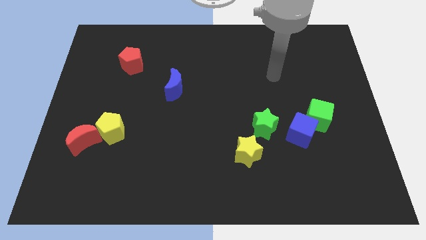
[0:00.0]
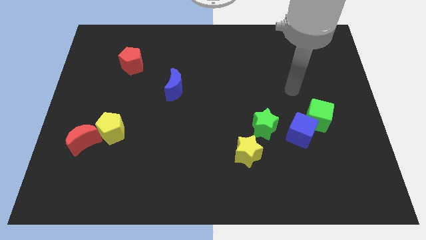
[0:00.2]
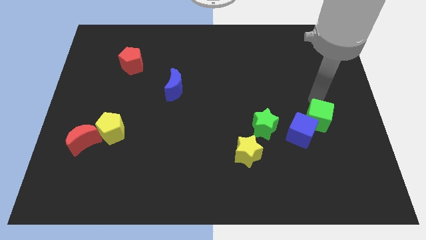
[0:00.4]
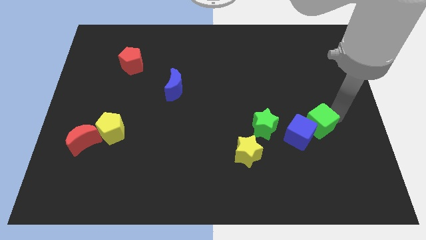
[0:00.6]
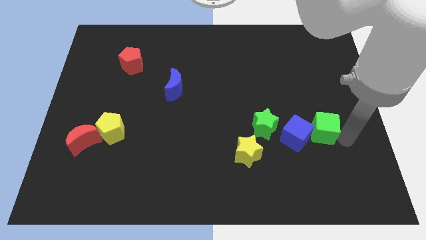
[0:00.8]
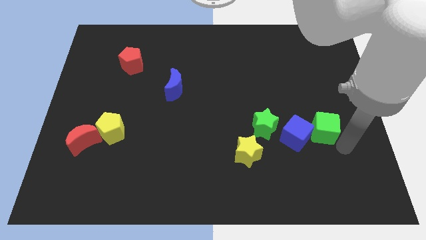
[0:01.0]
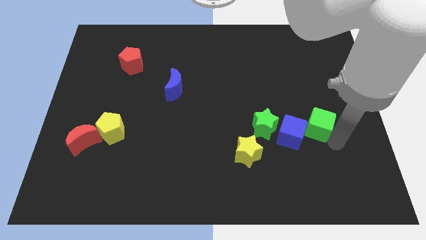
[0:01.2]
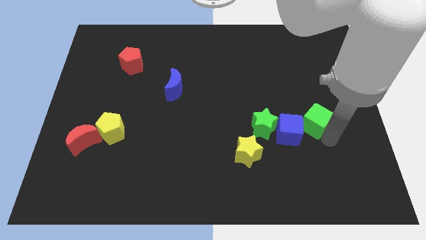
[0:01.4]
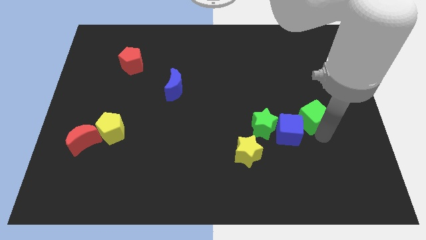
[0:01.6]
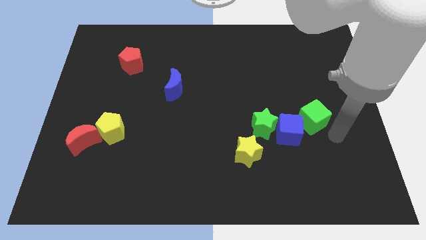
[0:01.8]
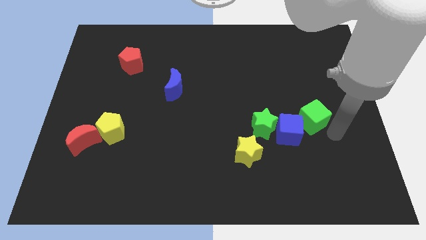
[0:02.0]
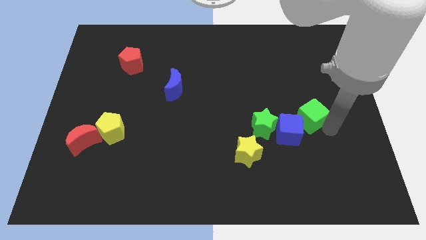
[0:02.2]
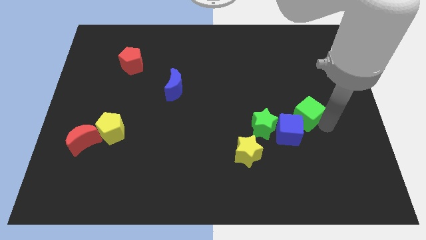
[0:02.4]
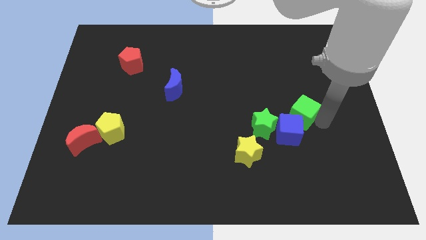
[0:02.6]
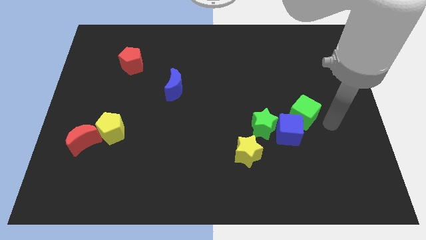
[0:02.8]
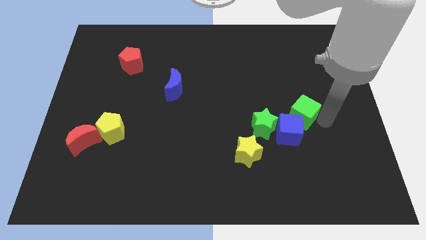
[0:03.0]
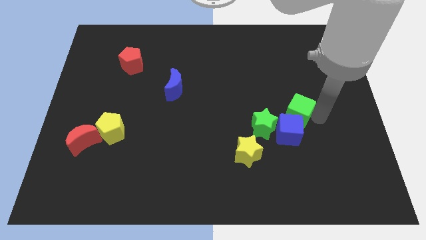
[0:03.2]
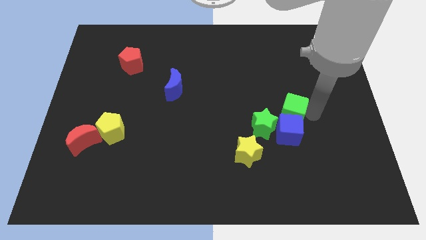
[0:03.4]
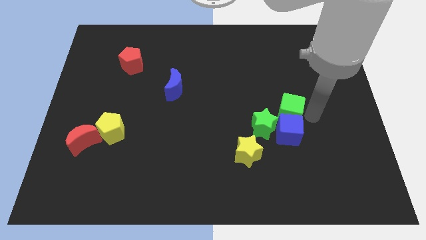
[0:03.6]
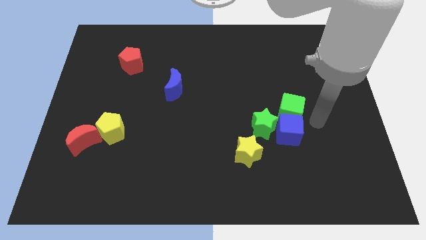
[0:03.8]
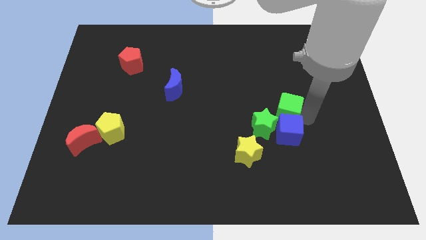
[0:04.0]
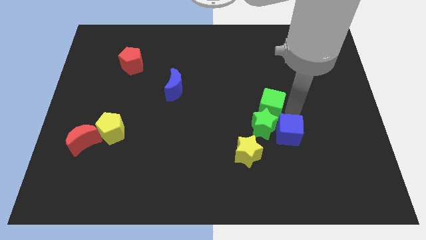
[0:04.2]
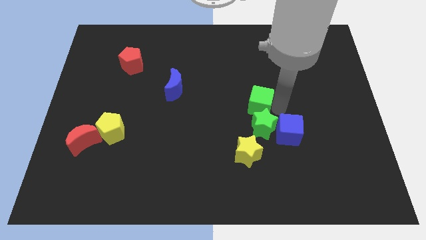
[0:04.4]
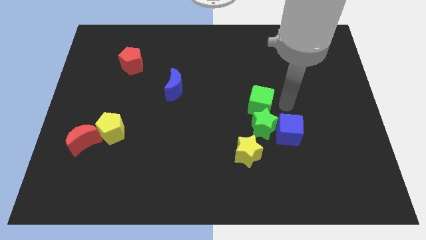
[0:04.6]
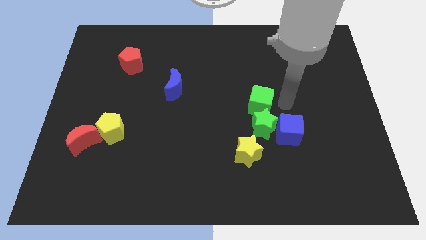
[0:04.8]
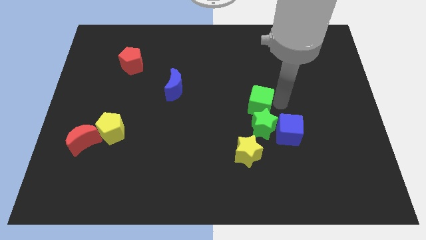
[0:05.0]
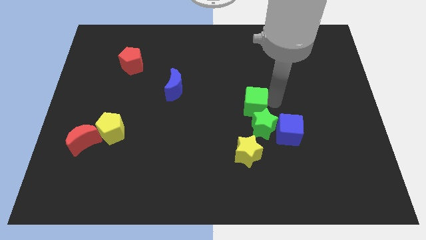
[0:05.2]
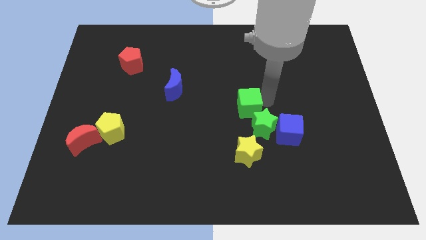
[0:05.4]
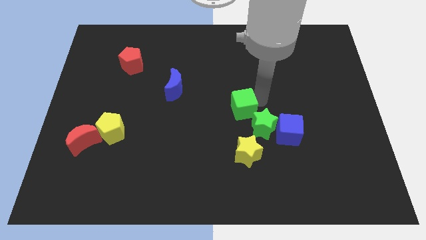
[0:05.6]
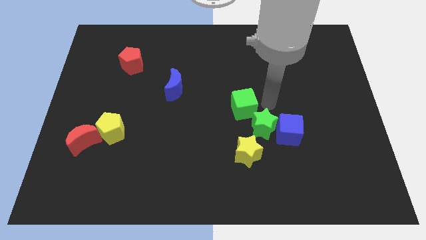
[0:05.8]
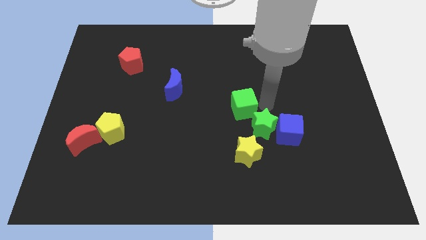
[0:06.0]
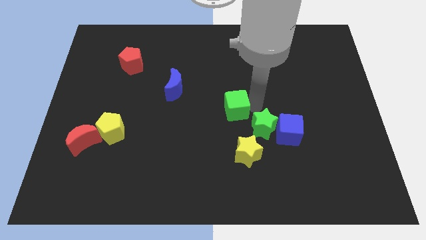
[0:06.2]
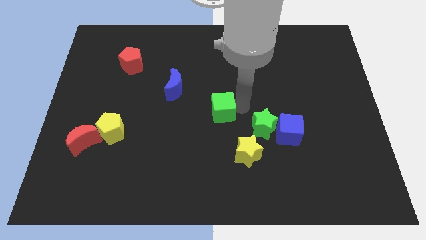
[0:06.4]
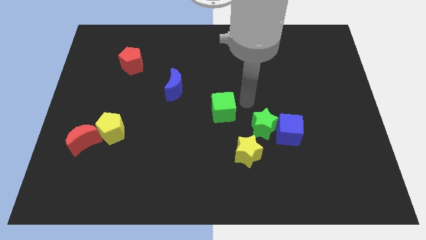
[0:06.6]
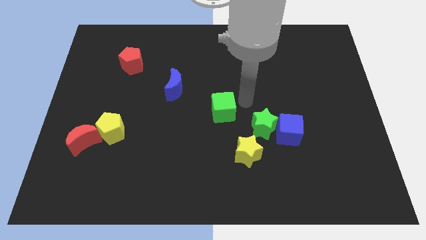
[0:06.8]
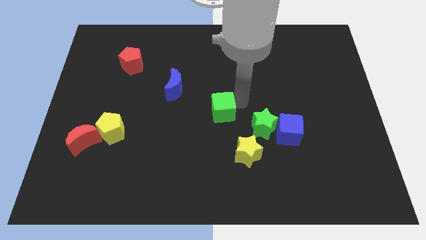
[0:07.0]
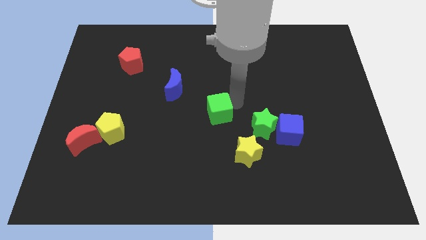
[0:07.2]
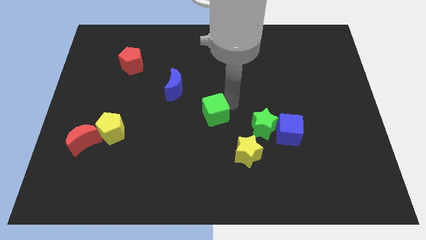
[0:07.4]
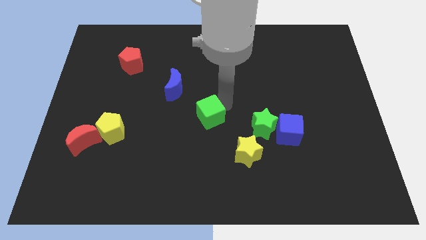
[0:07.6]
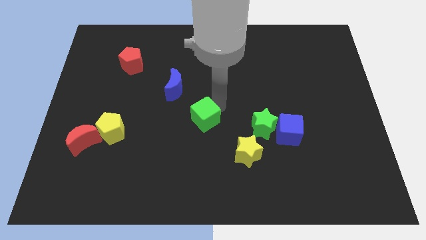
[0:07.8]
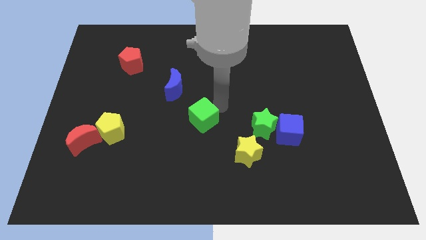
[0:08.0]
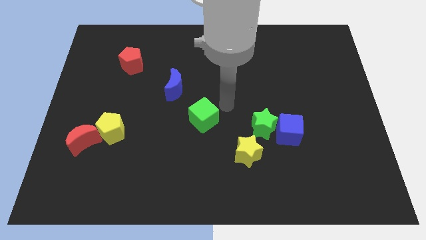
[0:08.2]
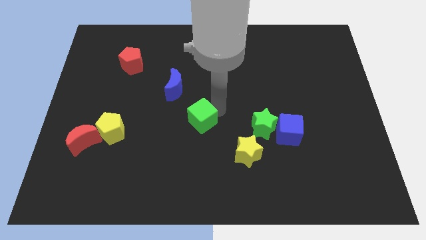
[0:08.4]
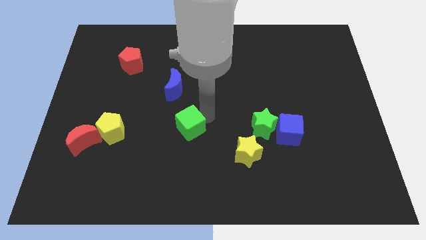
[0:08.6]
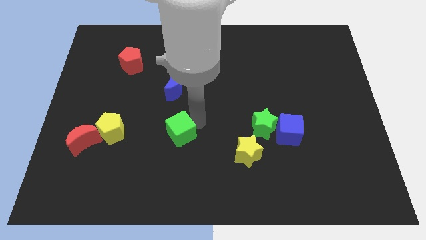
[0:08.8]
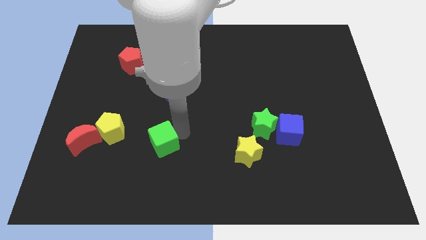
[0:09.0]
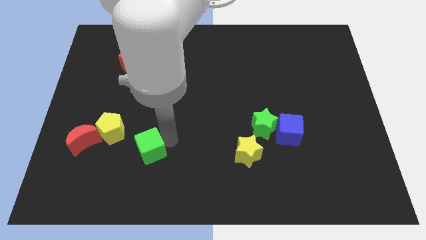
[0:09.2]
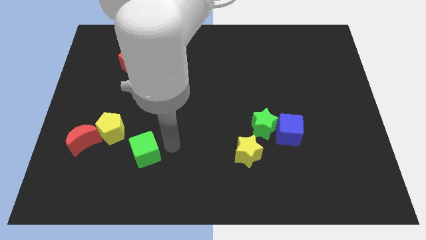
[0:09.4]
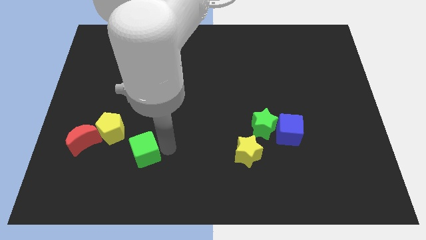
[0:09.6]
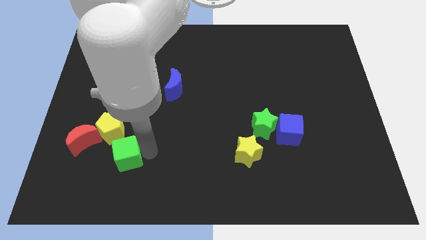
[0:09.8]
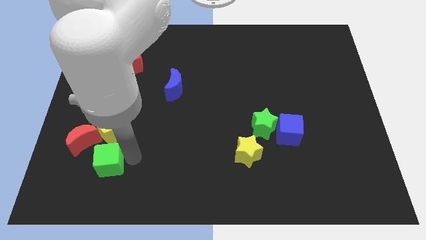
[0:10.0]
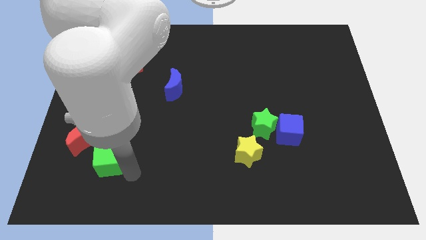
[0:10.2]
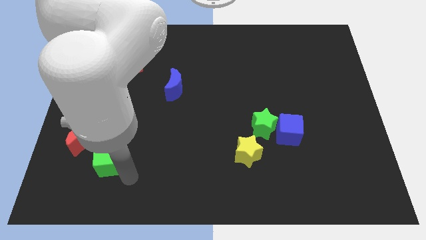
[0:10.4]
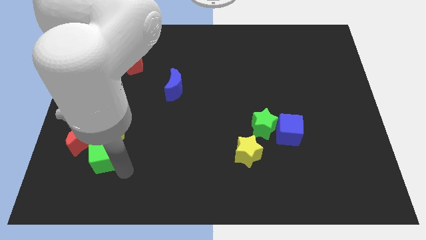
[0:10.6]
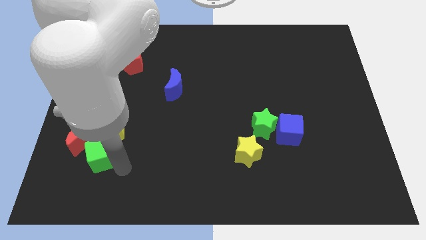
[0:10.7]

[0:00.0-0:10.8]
put the green cube close to the red moon

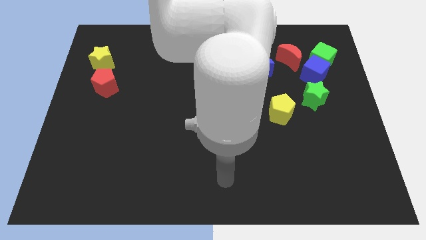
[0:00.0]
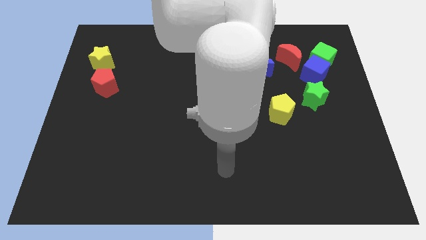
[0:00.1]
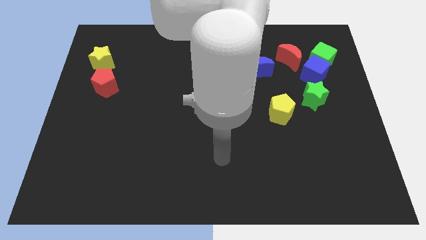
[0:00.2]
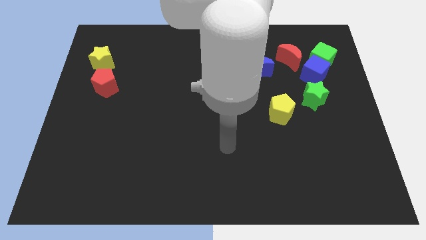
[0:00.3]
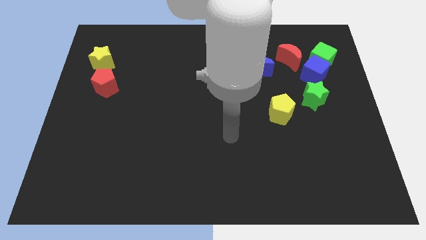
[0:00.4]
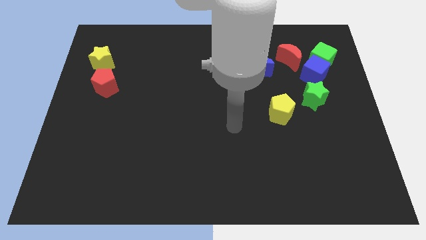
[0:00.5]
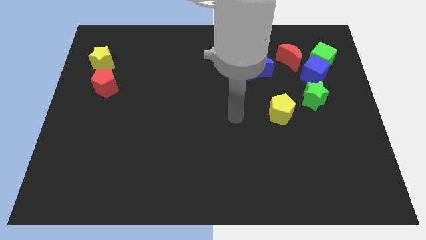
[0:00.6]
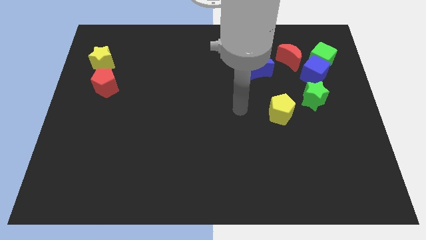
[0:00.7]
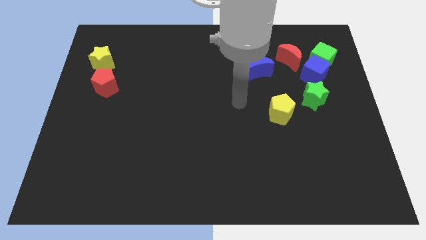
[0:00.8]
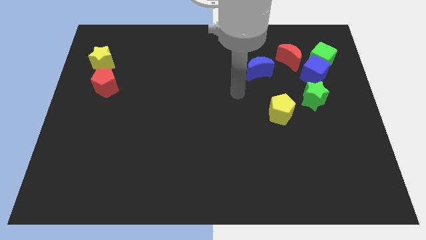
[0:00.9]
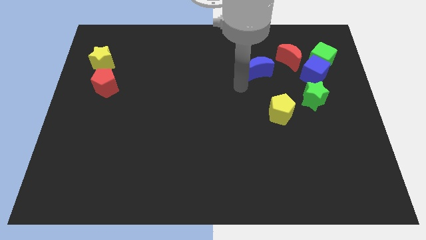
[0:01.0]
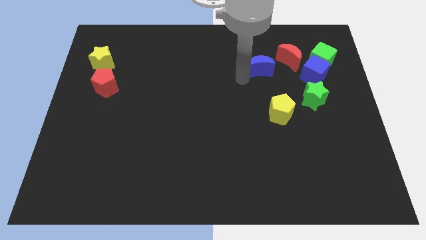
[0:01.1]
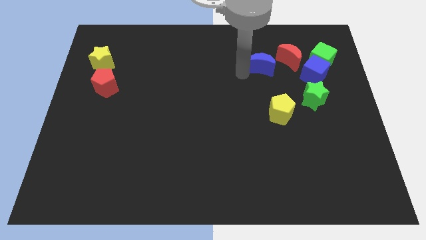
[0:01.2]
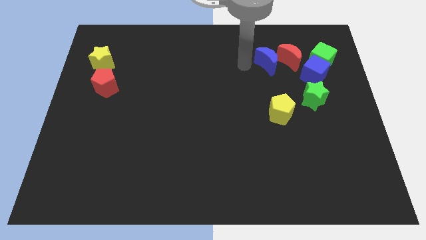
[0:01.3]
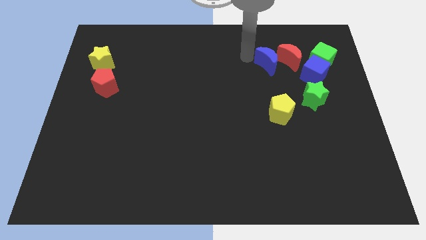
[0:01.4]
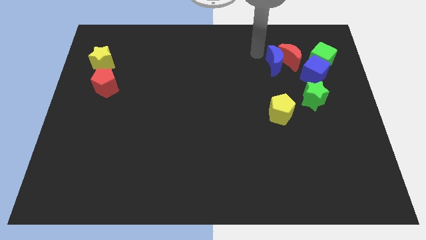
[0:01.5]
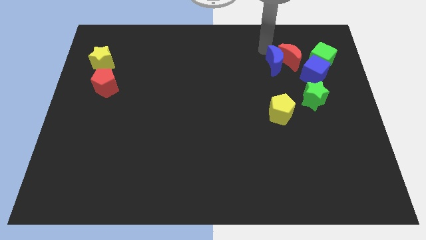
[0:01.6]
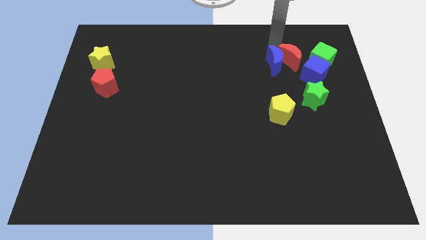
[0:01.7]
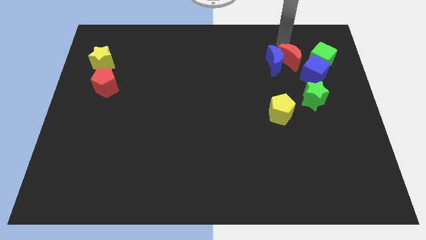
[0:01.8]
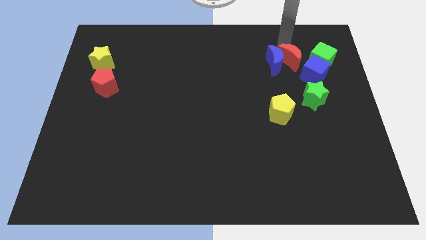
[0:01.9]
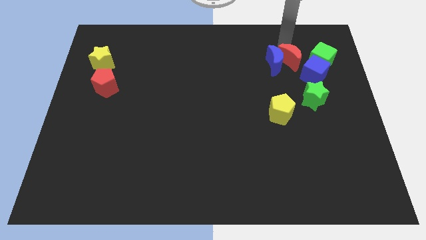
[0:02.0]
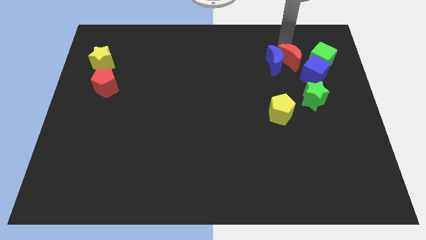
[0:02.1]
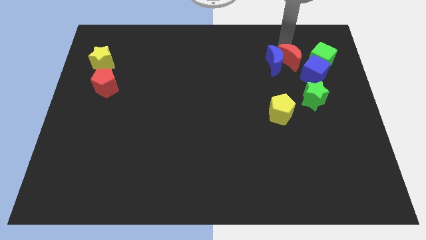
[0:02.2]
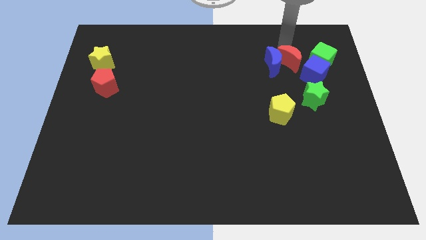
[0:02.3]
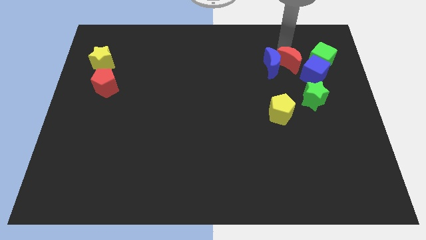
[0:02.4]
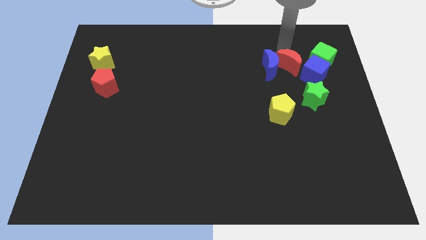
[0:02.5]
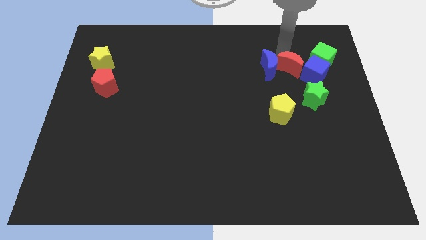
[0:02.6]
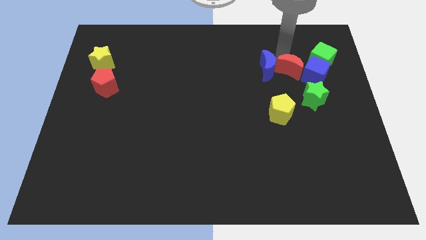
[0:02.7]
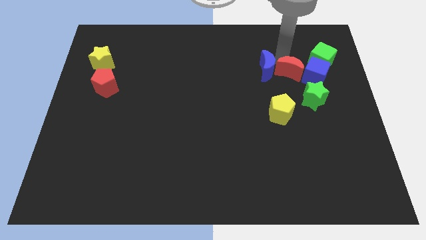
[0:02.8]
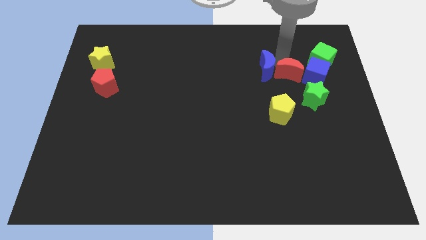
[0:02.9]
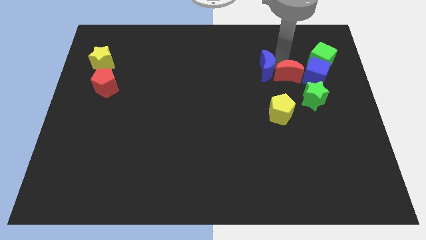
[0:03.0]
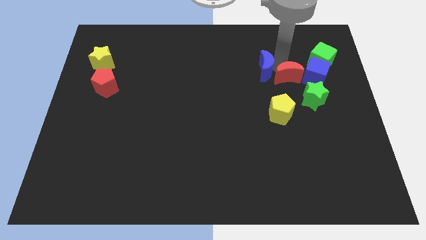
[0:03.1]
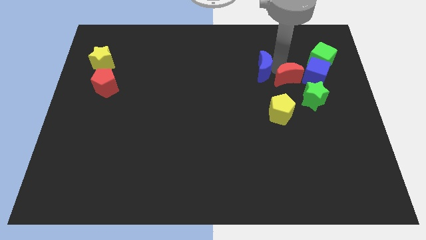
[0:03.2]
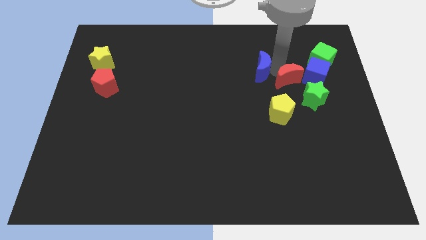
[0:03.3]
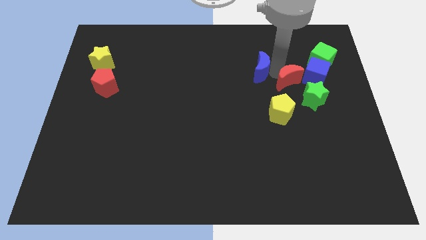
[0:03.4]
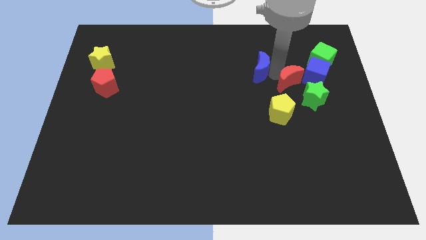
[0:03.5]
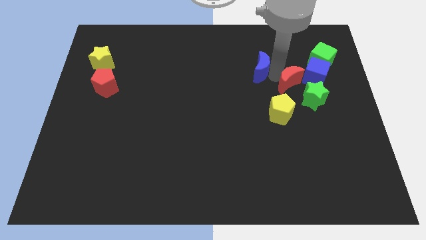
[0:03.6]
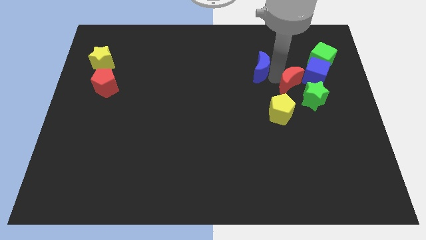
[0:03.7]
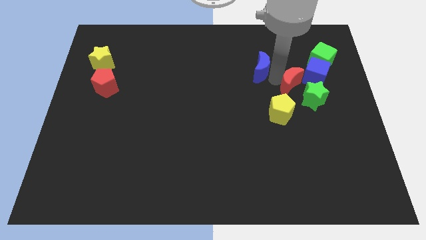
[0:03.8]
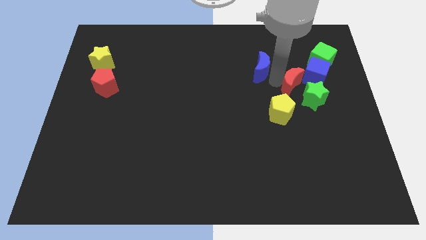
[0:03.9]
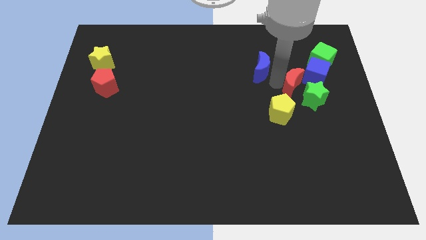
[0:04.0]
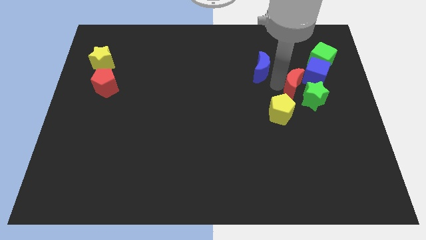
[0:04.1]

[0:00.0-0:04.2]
put the red moon next to the green star
